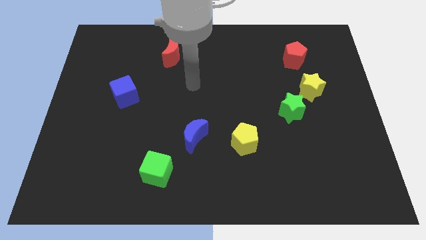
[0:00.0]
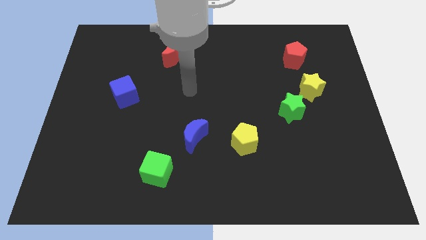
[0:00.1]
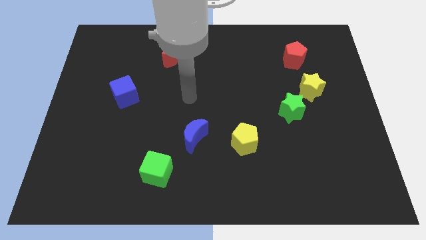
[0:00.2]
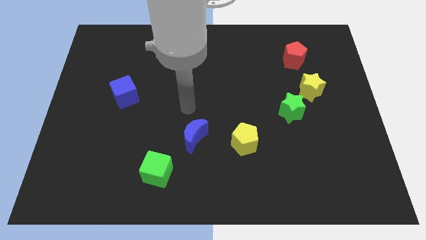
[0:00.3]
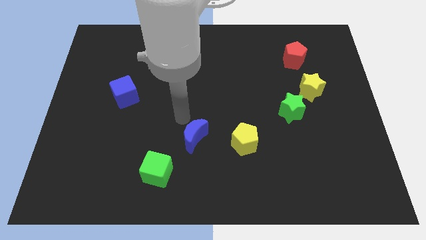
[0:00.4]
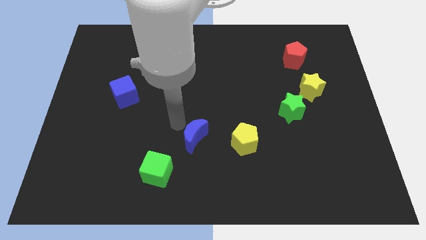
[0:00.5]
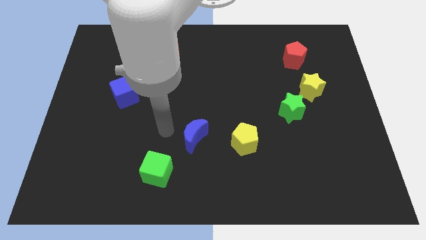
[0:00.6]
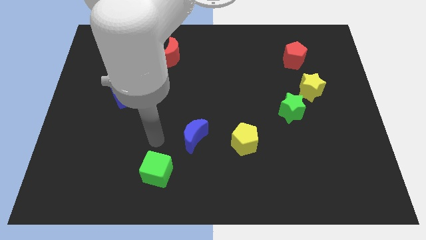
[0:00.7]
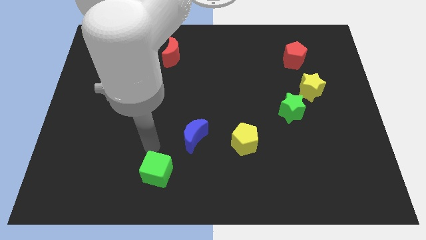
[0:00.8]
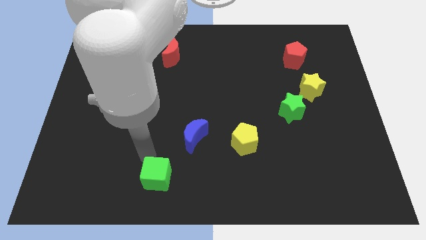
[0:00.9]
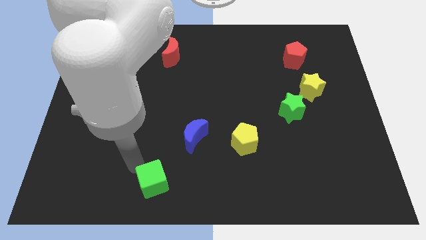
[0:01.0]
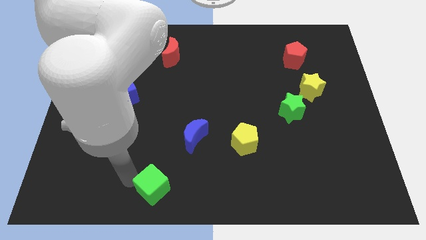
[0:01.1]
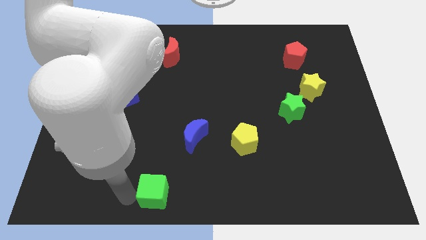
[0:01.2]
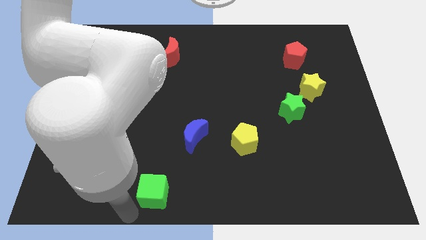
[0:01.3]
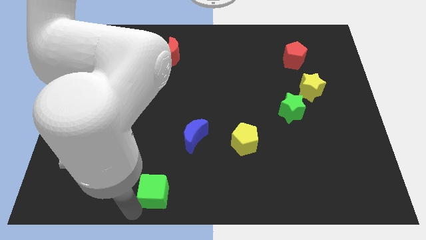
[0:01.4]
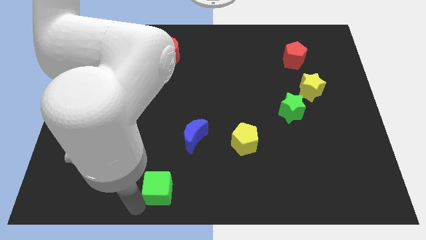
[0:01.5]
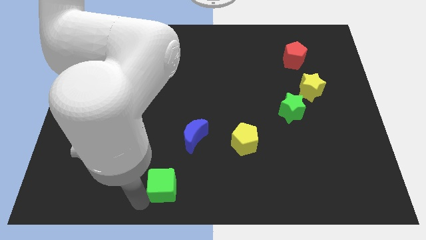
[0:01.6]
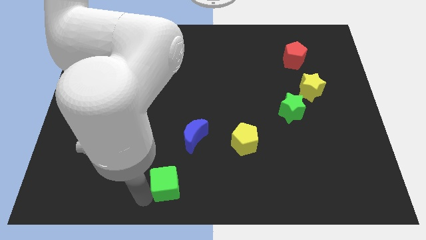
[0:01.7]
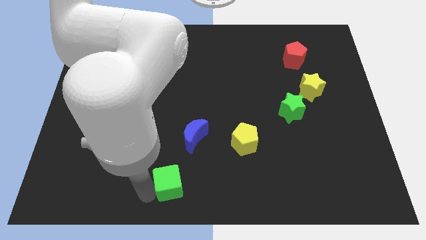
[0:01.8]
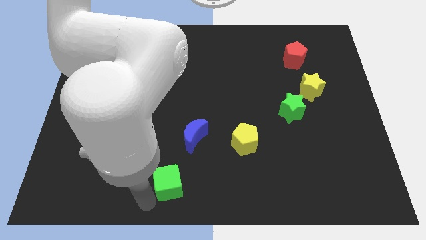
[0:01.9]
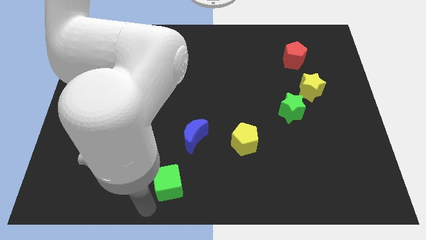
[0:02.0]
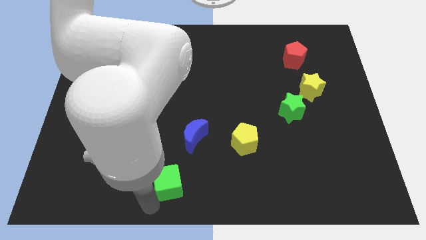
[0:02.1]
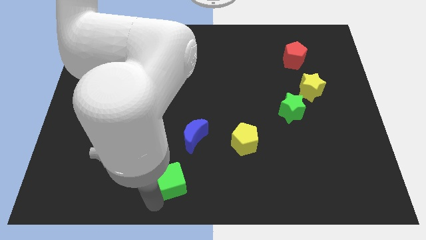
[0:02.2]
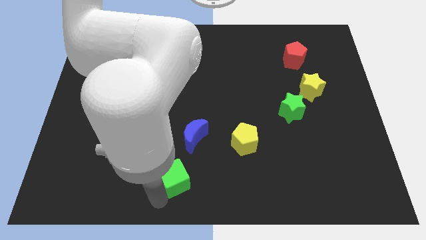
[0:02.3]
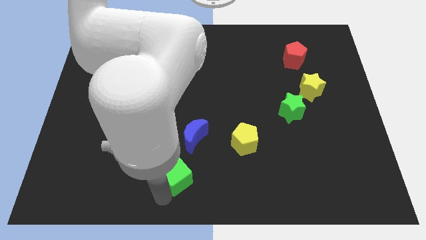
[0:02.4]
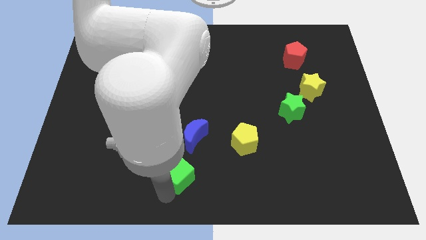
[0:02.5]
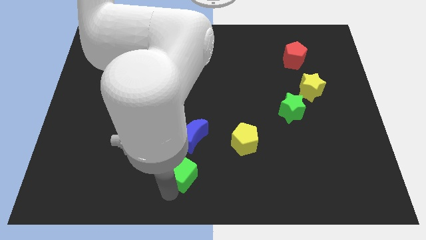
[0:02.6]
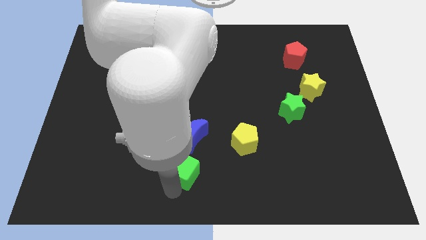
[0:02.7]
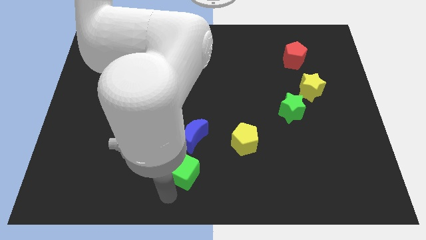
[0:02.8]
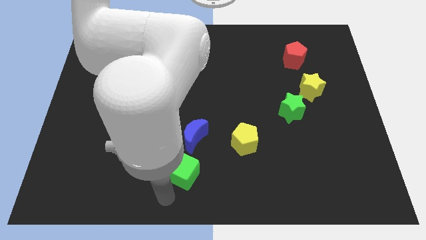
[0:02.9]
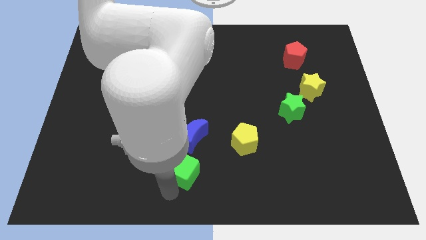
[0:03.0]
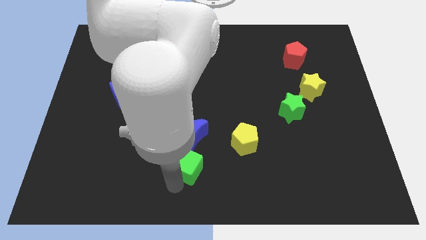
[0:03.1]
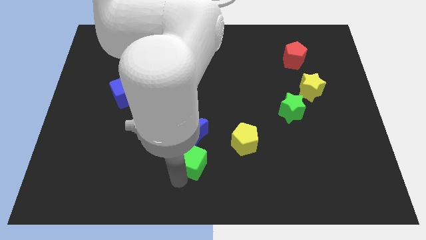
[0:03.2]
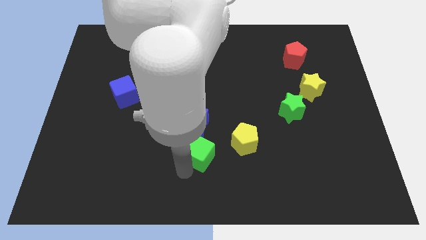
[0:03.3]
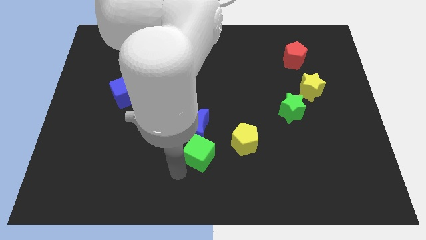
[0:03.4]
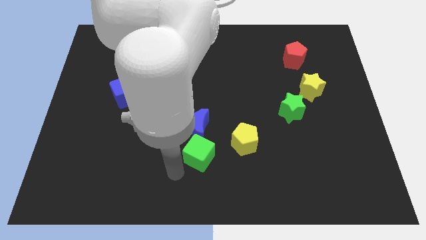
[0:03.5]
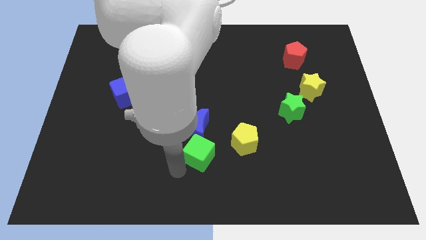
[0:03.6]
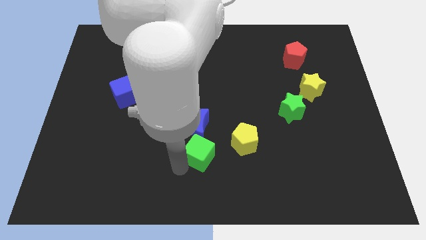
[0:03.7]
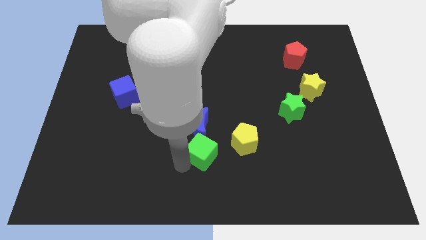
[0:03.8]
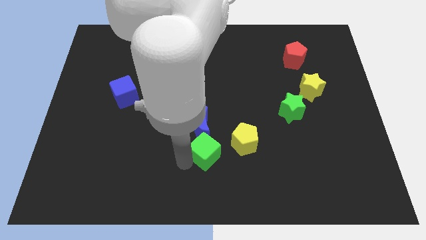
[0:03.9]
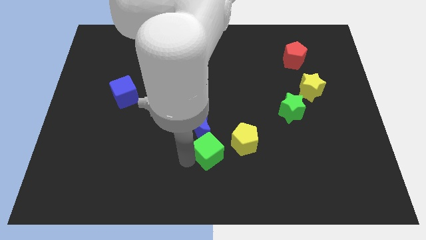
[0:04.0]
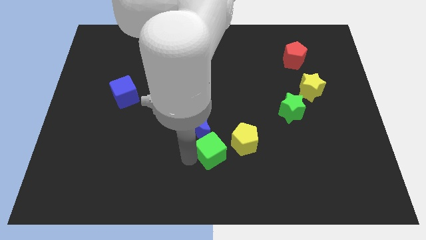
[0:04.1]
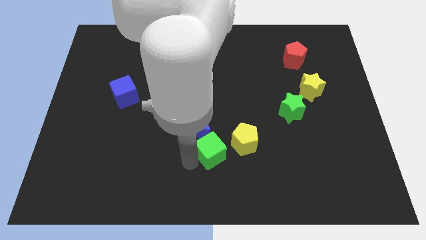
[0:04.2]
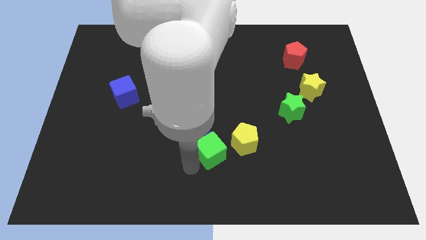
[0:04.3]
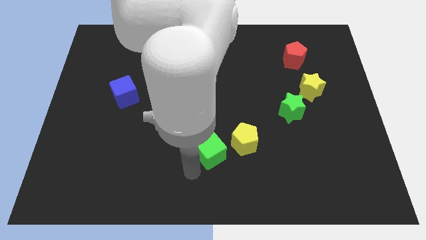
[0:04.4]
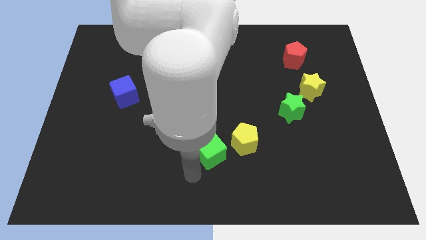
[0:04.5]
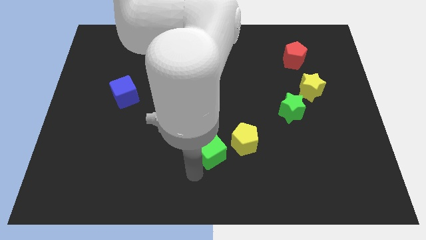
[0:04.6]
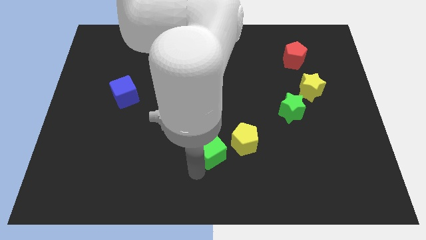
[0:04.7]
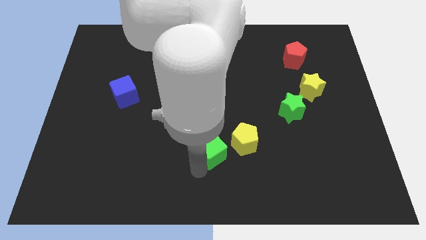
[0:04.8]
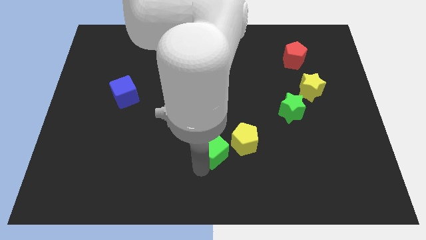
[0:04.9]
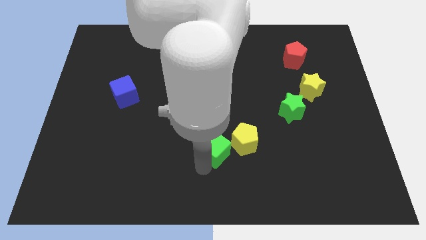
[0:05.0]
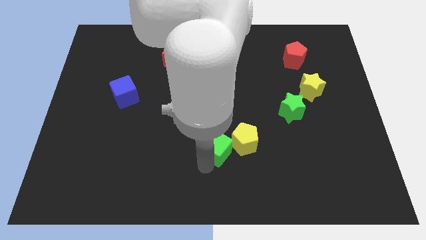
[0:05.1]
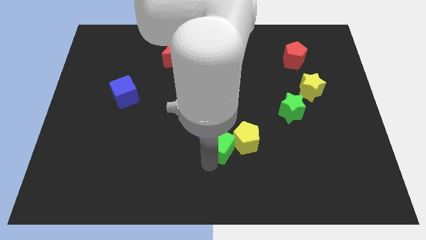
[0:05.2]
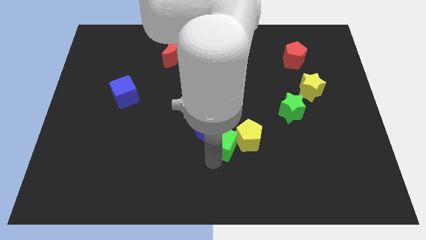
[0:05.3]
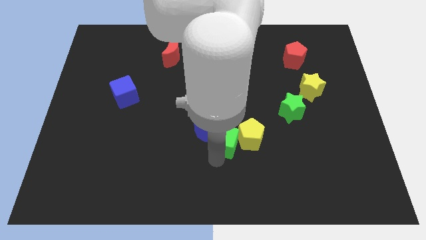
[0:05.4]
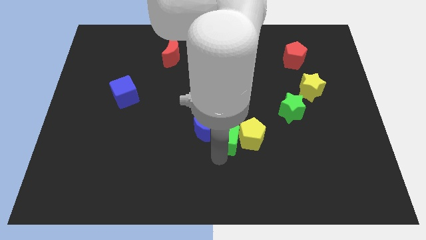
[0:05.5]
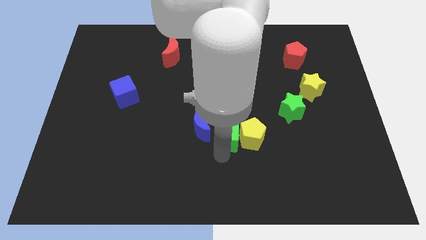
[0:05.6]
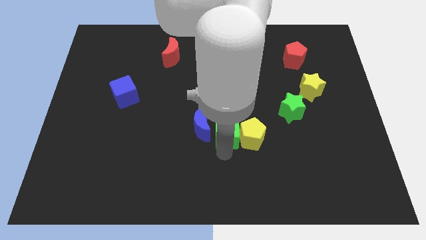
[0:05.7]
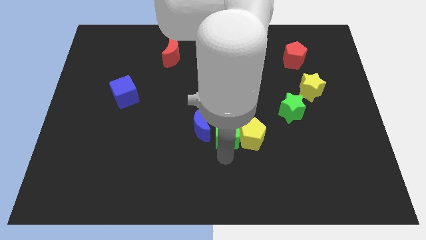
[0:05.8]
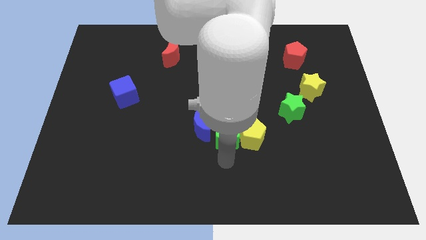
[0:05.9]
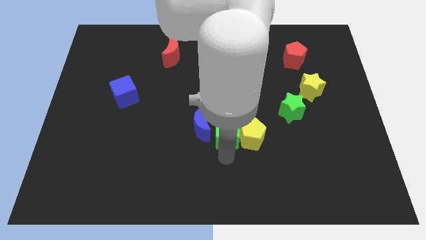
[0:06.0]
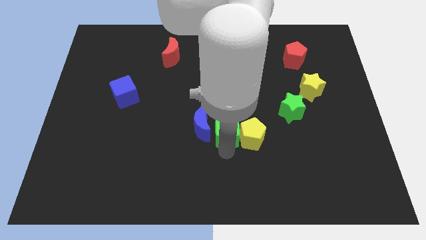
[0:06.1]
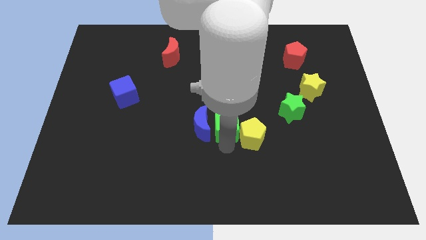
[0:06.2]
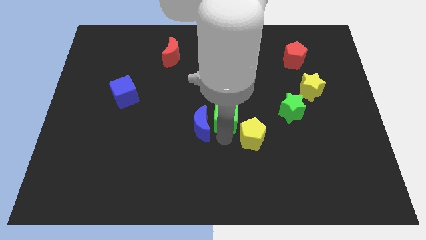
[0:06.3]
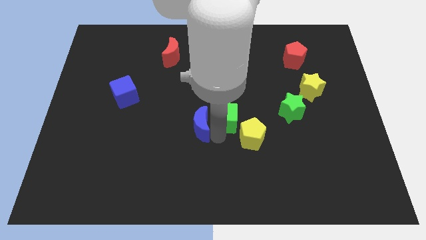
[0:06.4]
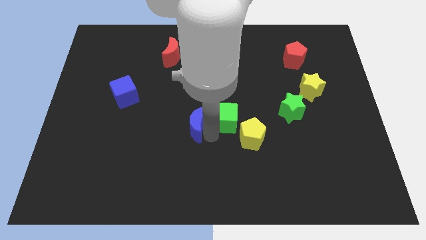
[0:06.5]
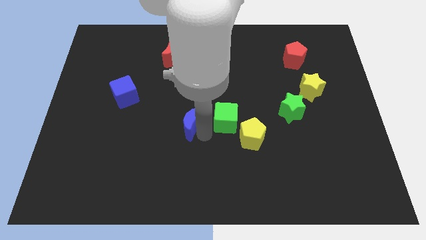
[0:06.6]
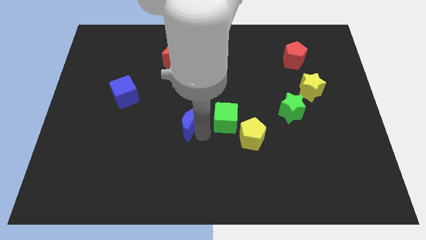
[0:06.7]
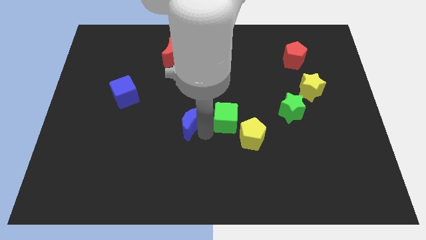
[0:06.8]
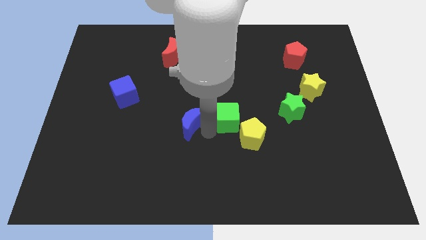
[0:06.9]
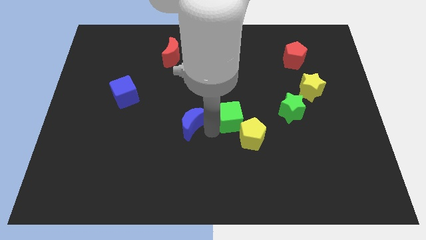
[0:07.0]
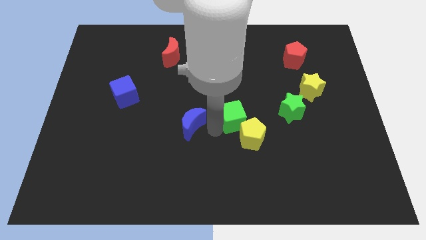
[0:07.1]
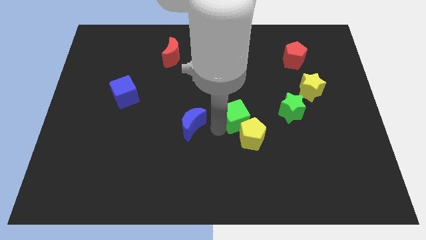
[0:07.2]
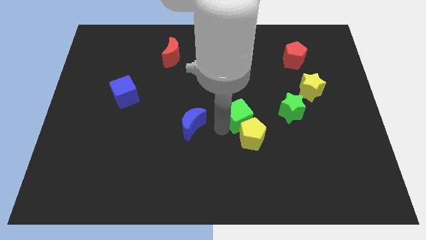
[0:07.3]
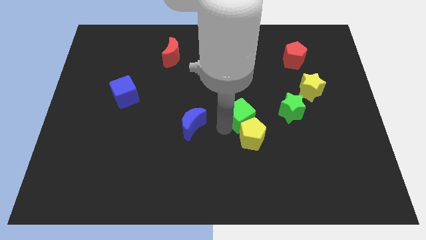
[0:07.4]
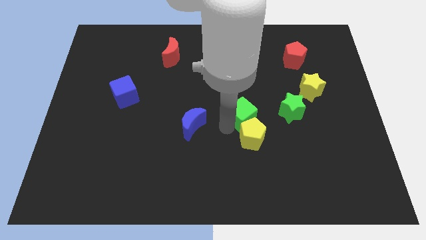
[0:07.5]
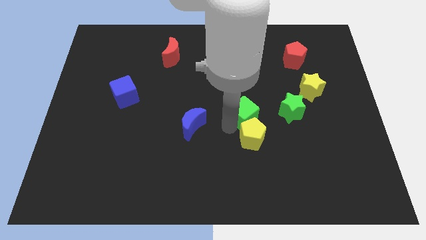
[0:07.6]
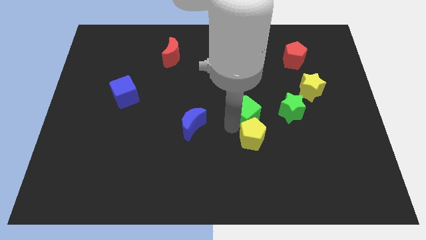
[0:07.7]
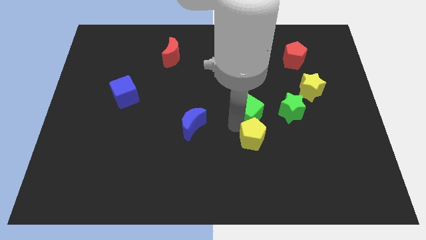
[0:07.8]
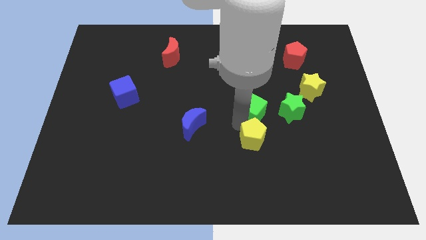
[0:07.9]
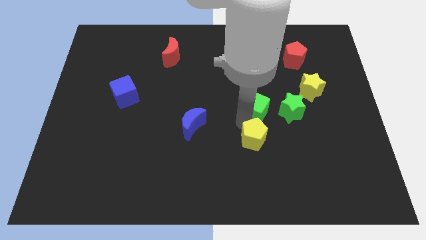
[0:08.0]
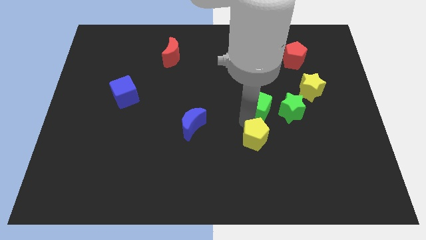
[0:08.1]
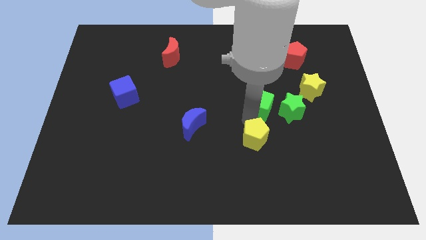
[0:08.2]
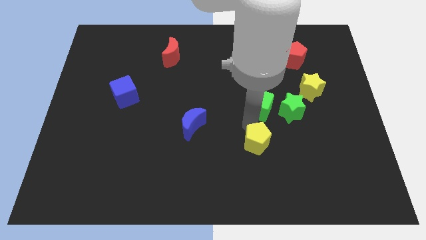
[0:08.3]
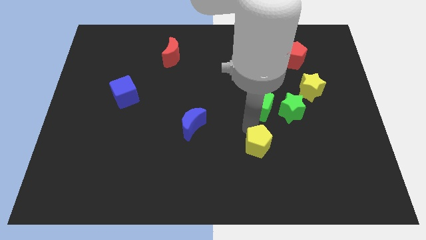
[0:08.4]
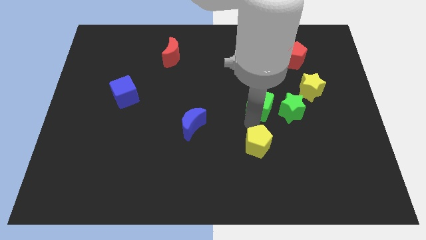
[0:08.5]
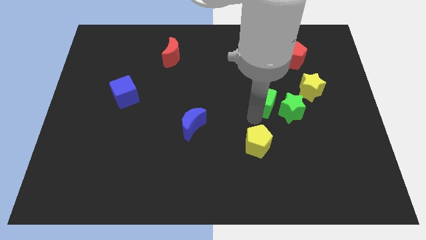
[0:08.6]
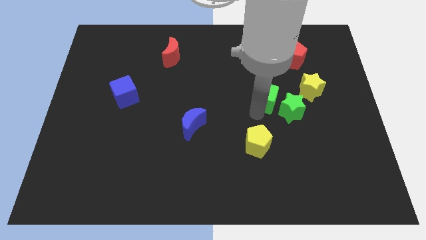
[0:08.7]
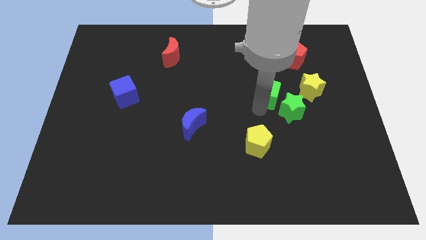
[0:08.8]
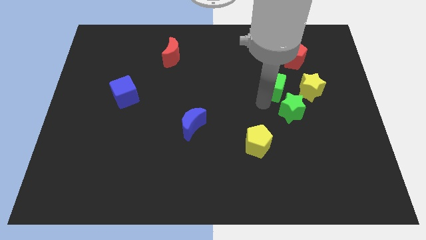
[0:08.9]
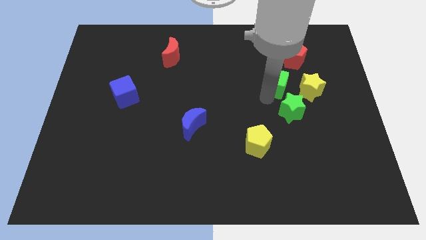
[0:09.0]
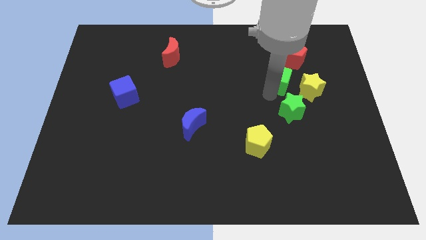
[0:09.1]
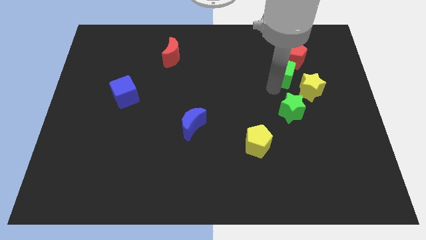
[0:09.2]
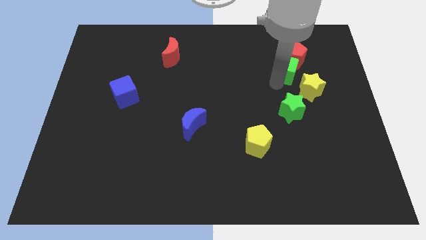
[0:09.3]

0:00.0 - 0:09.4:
move the green cube towards the red pentagon
